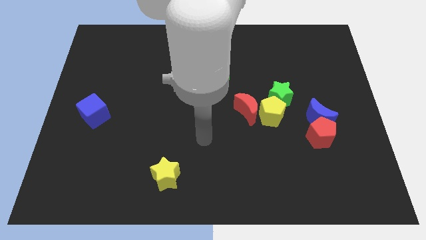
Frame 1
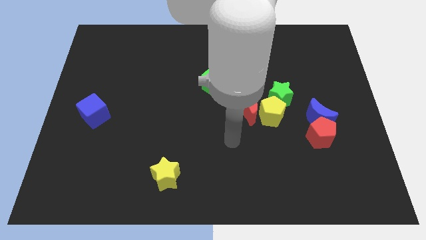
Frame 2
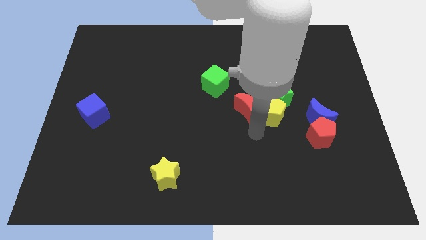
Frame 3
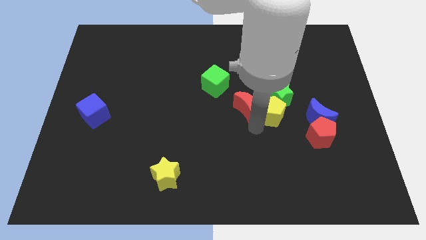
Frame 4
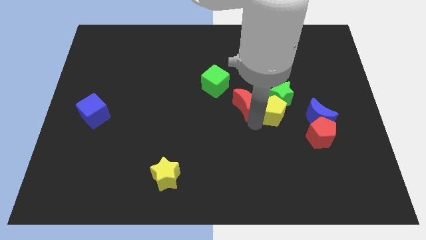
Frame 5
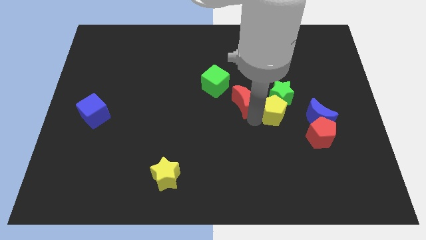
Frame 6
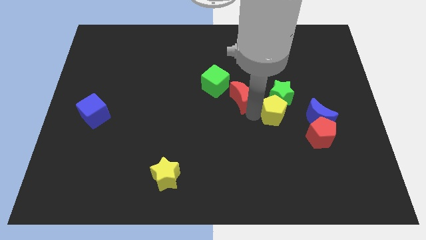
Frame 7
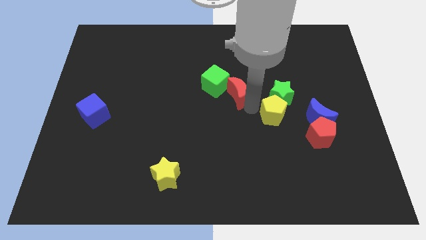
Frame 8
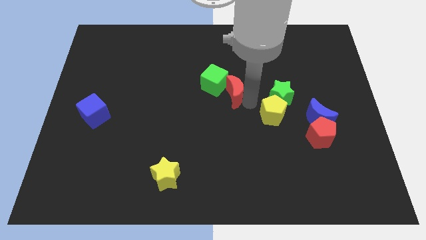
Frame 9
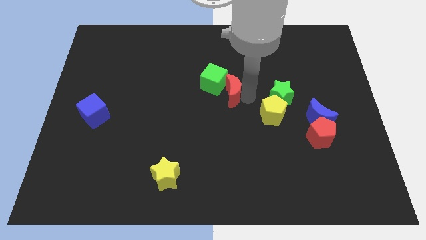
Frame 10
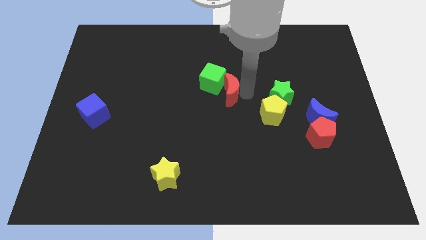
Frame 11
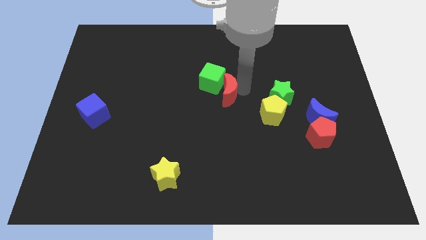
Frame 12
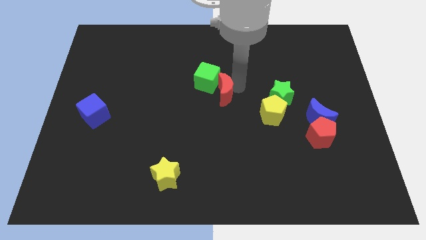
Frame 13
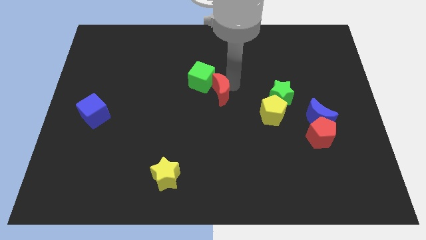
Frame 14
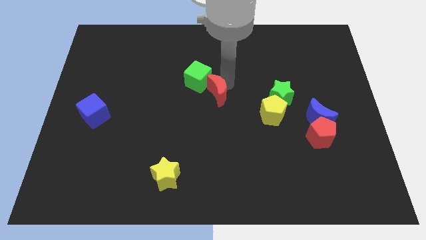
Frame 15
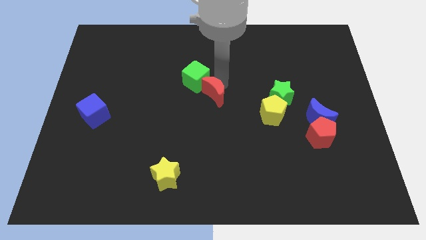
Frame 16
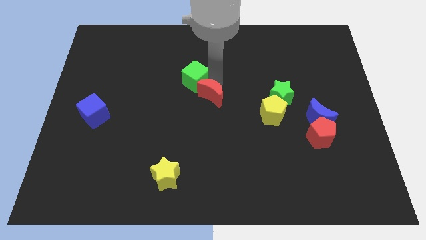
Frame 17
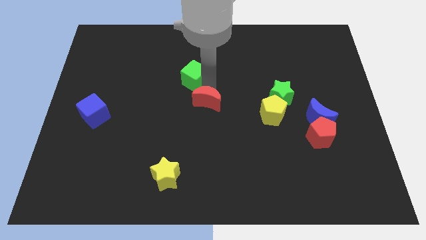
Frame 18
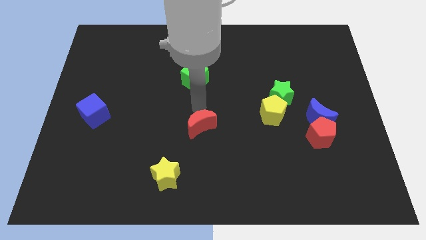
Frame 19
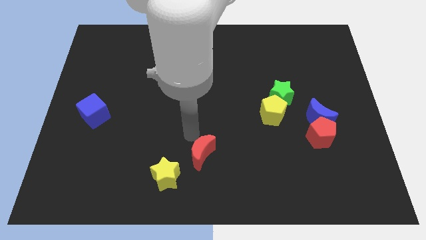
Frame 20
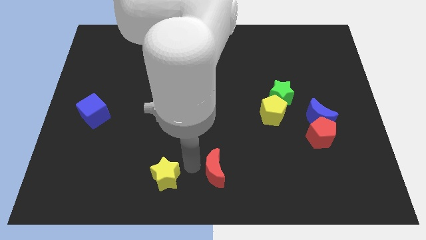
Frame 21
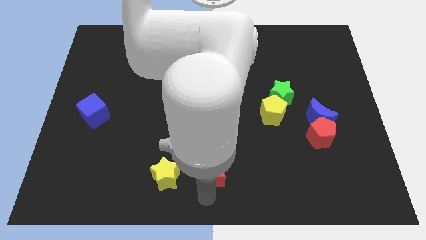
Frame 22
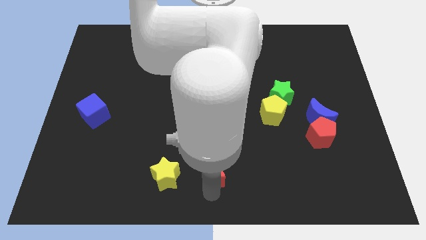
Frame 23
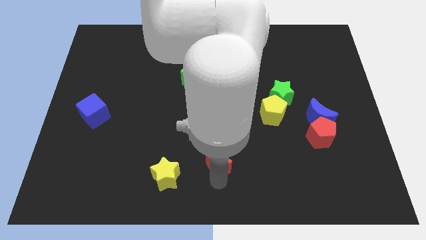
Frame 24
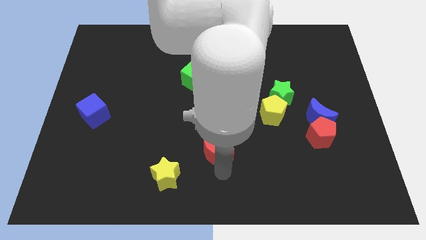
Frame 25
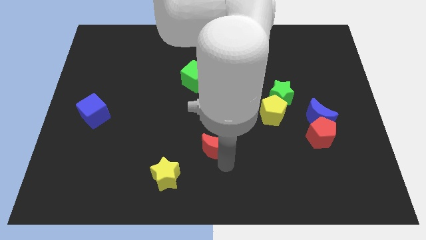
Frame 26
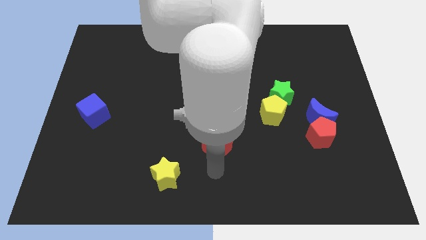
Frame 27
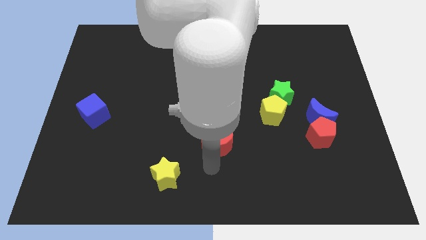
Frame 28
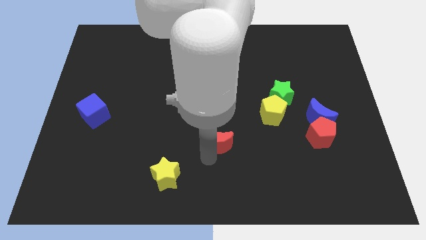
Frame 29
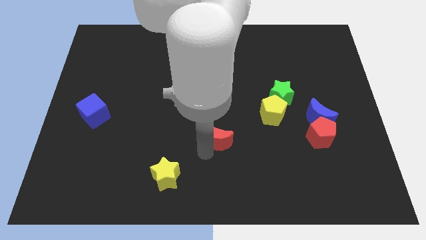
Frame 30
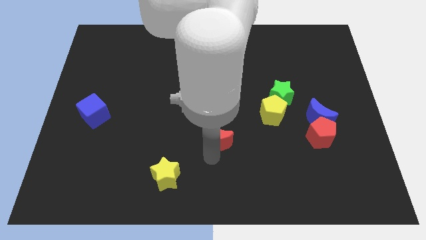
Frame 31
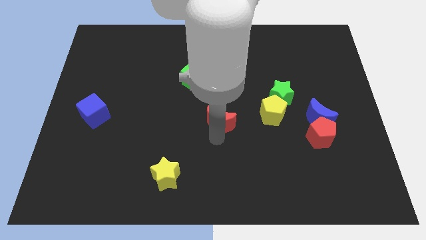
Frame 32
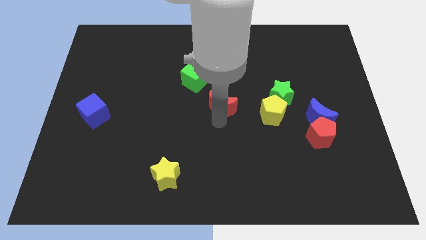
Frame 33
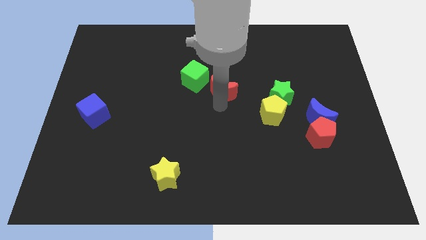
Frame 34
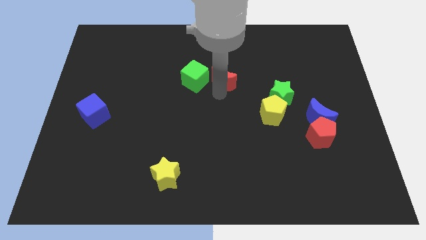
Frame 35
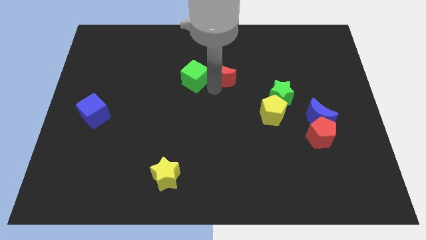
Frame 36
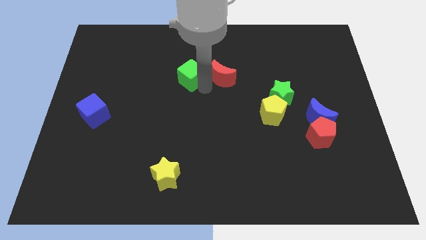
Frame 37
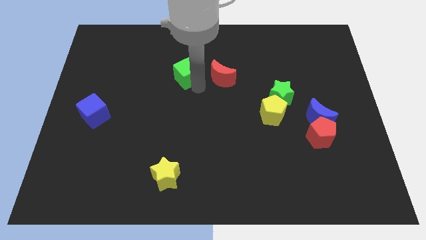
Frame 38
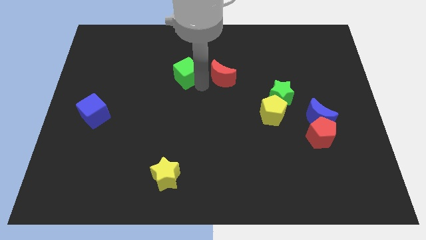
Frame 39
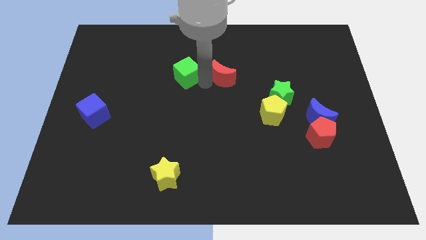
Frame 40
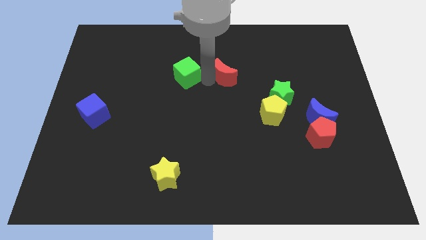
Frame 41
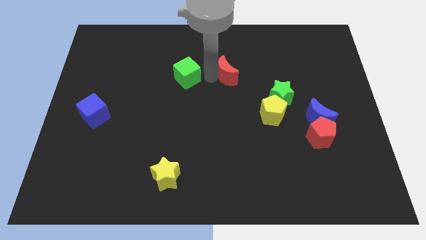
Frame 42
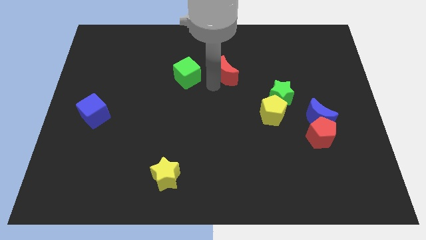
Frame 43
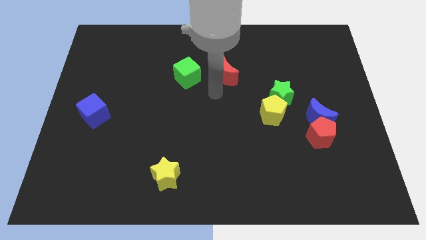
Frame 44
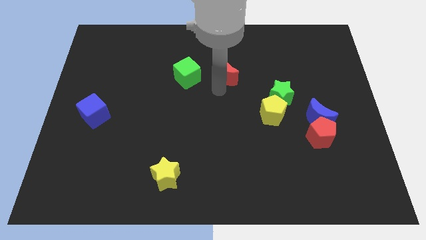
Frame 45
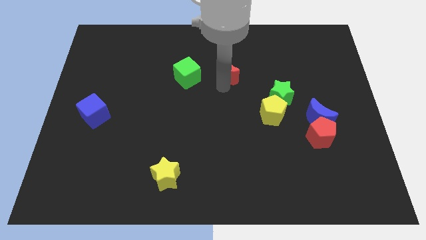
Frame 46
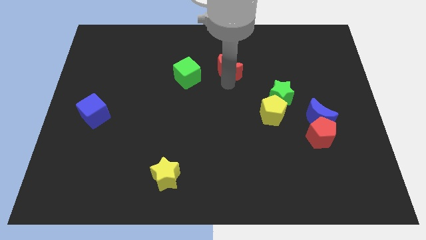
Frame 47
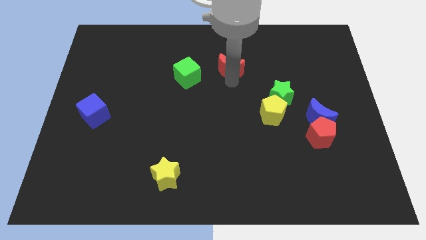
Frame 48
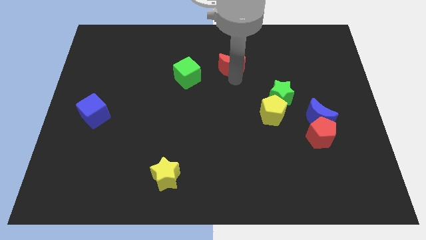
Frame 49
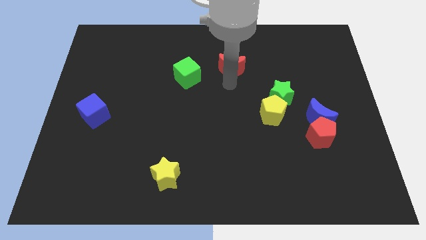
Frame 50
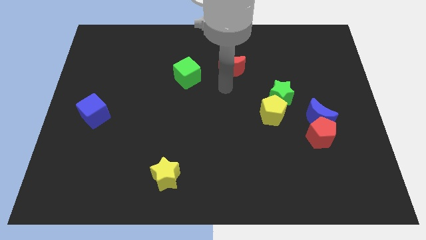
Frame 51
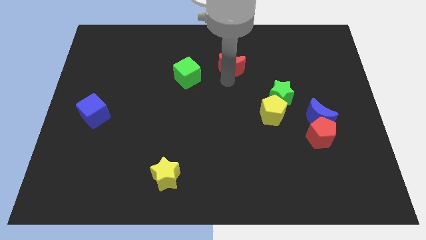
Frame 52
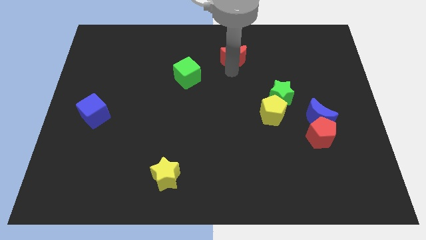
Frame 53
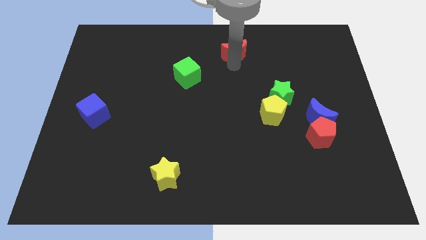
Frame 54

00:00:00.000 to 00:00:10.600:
slide the red moon to the top side

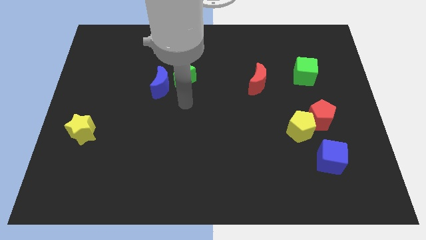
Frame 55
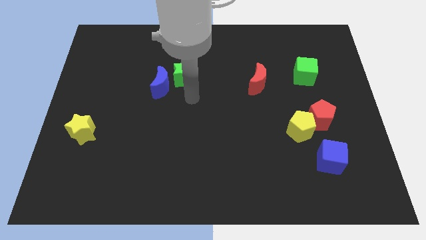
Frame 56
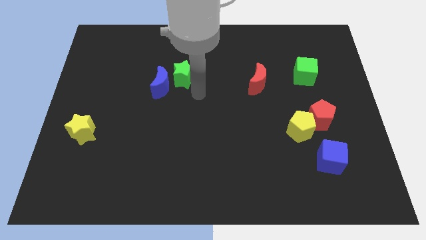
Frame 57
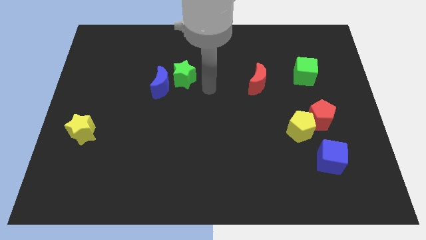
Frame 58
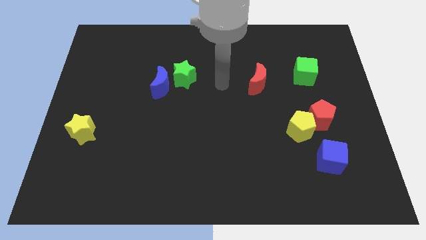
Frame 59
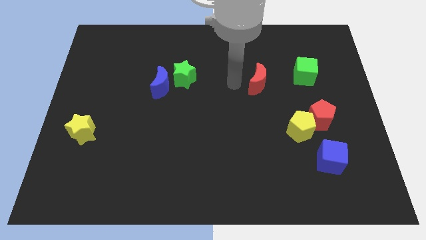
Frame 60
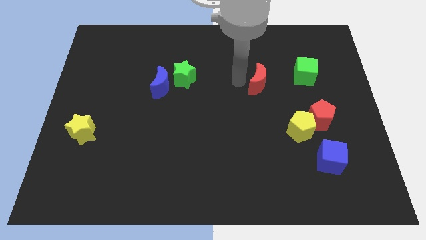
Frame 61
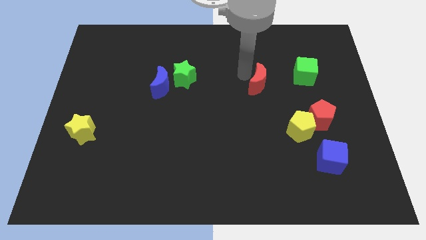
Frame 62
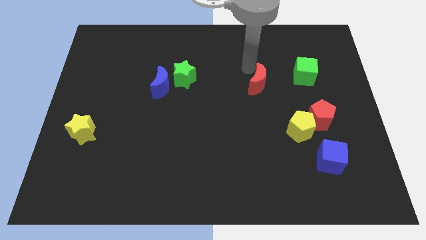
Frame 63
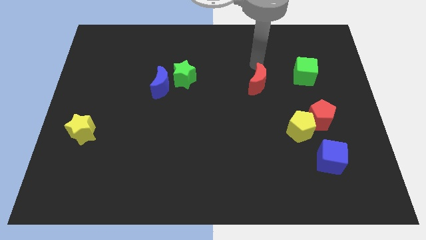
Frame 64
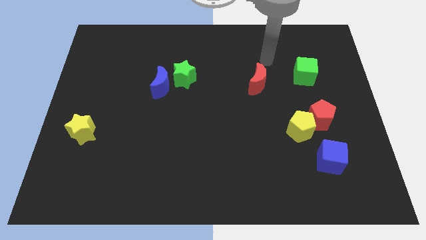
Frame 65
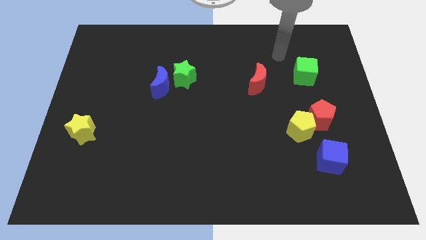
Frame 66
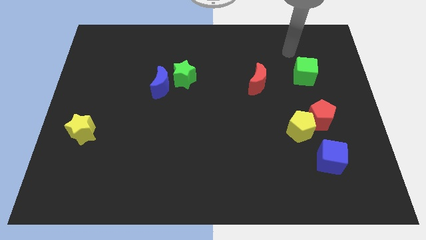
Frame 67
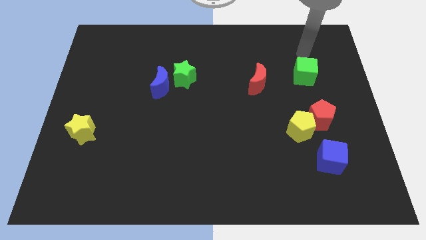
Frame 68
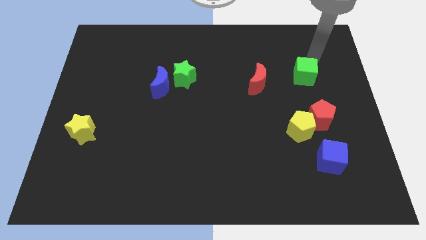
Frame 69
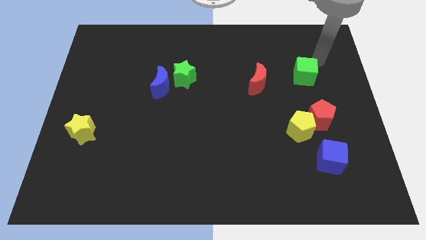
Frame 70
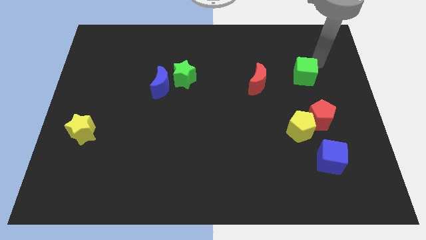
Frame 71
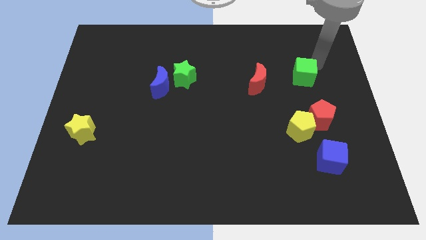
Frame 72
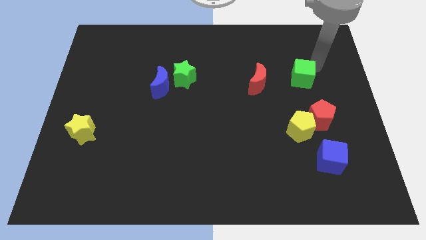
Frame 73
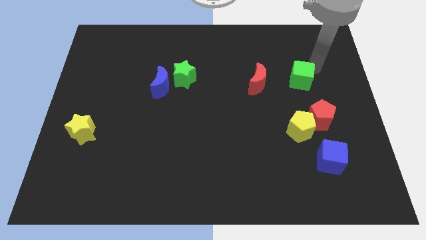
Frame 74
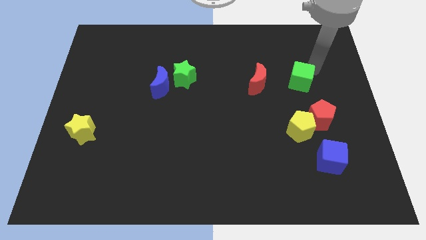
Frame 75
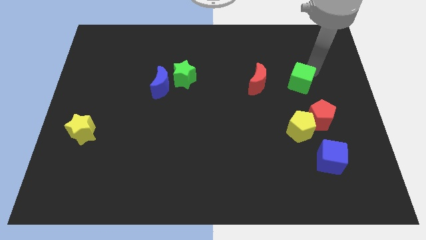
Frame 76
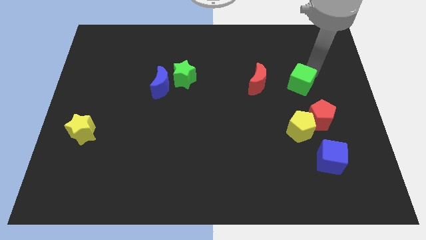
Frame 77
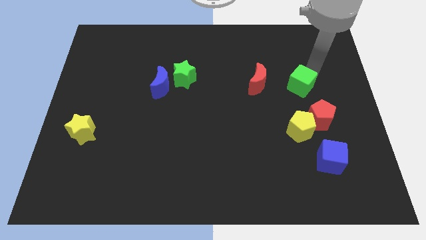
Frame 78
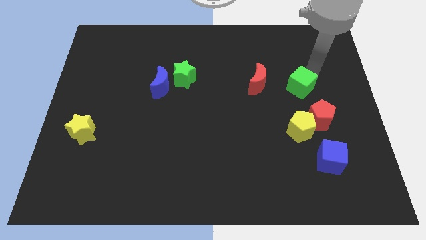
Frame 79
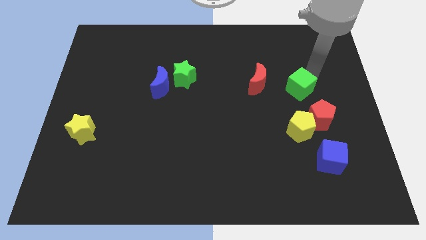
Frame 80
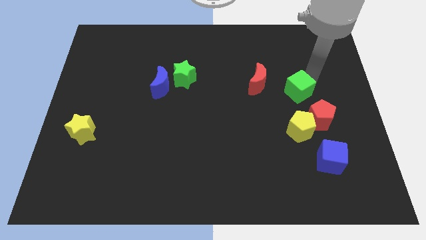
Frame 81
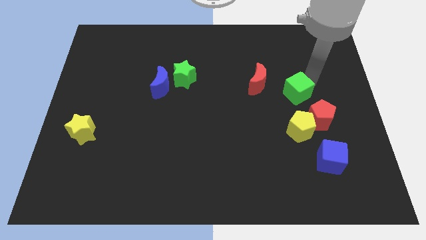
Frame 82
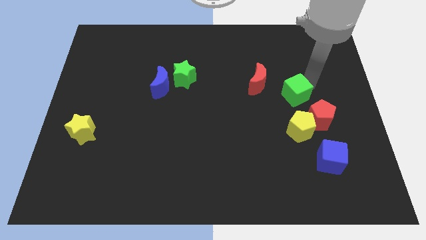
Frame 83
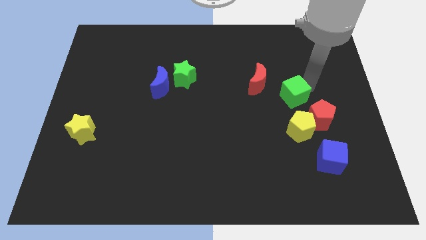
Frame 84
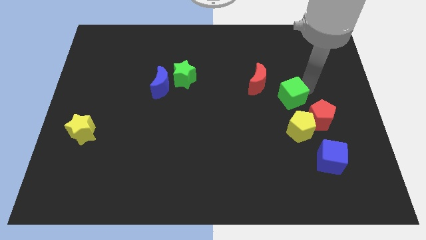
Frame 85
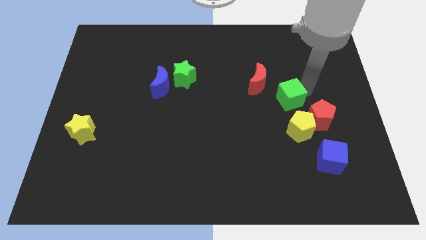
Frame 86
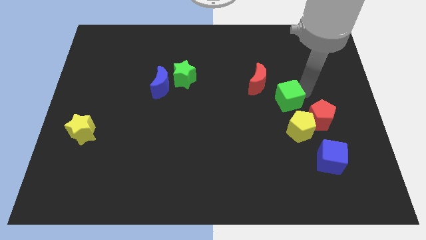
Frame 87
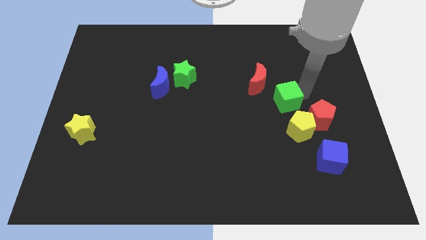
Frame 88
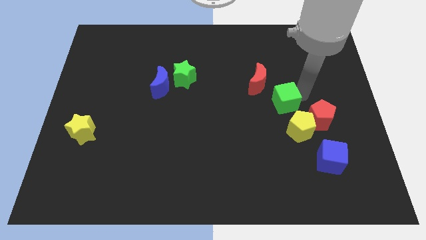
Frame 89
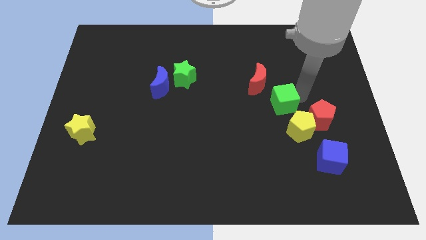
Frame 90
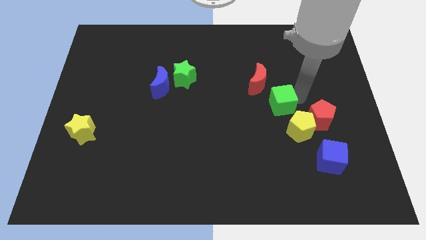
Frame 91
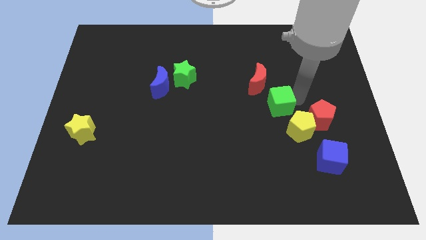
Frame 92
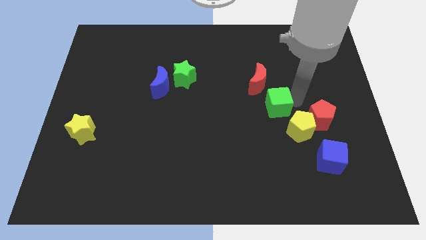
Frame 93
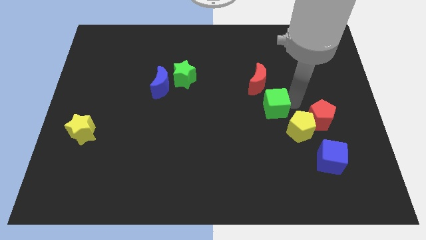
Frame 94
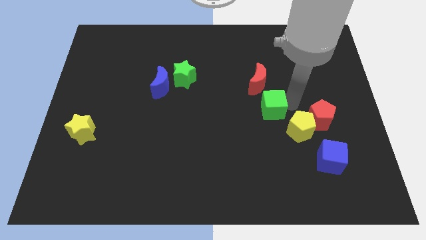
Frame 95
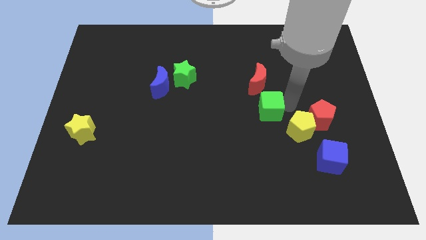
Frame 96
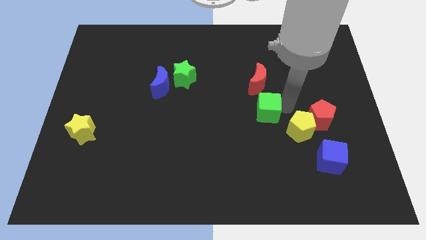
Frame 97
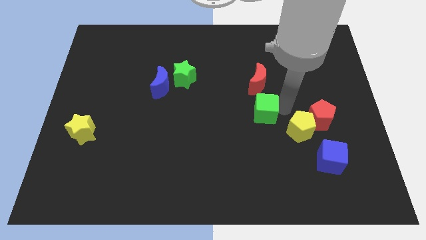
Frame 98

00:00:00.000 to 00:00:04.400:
put the green cube to the middle of the board
